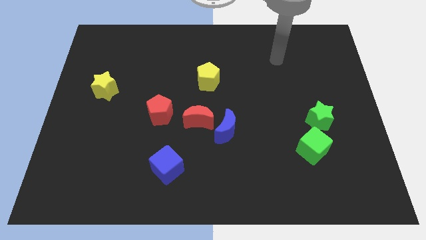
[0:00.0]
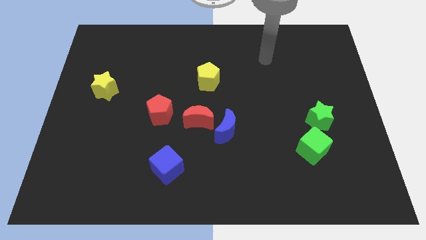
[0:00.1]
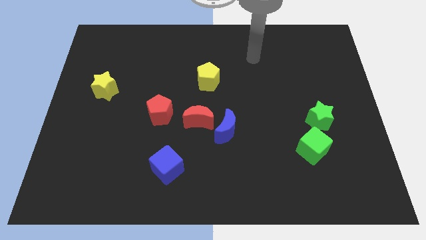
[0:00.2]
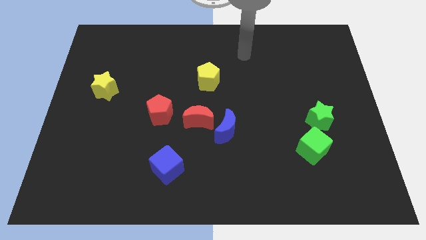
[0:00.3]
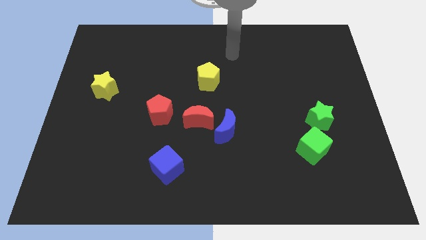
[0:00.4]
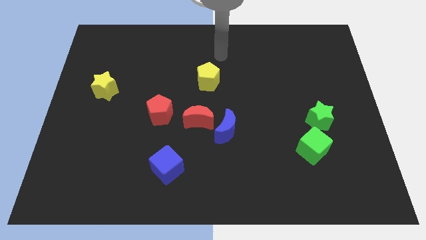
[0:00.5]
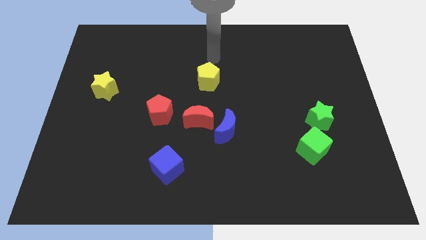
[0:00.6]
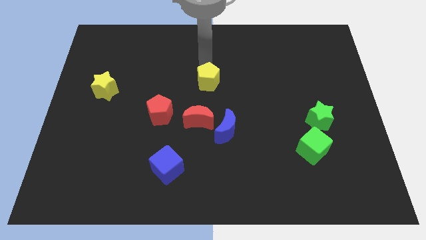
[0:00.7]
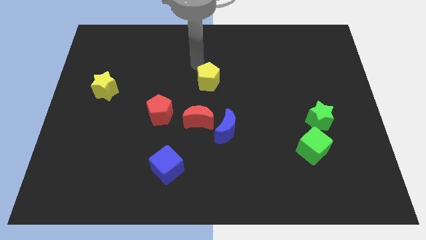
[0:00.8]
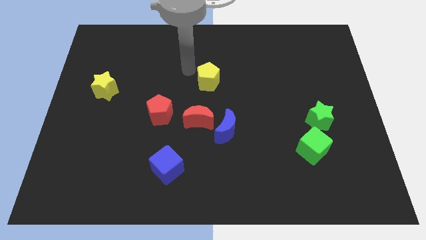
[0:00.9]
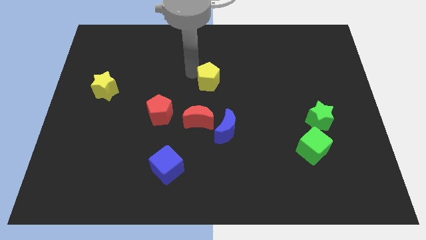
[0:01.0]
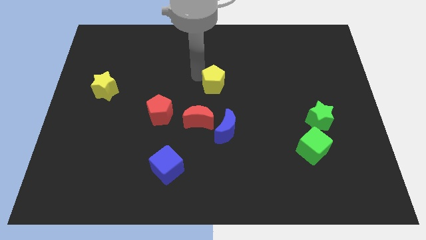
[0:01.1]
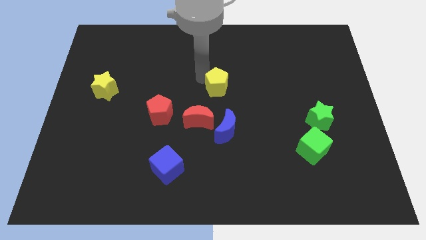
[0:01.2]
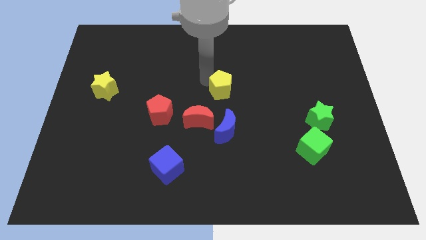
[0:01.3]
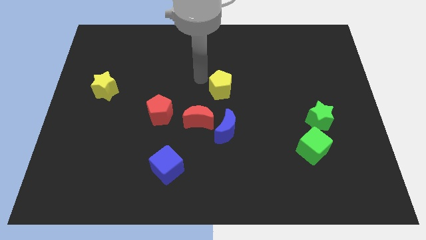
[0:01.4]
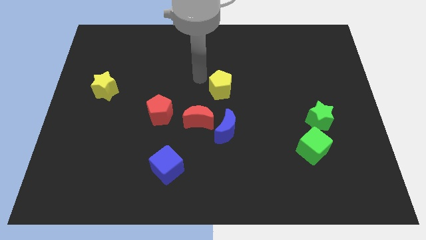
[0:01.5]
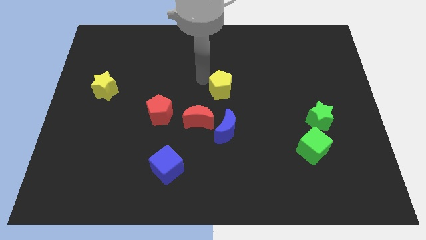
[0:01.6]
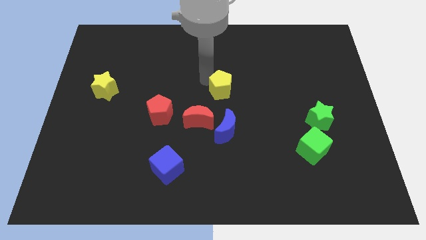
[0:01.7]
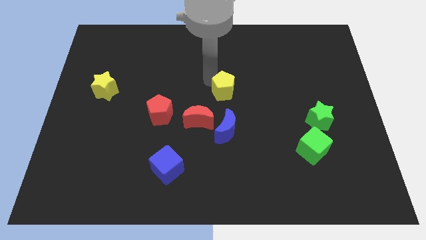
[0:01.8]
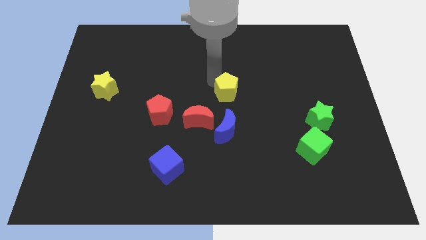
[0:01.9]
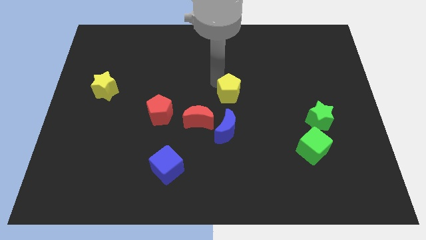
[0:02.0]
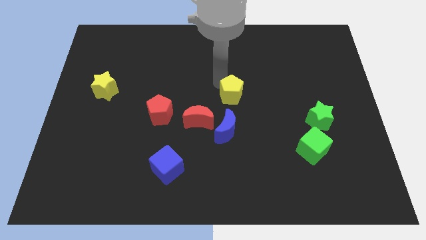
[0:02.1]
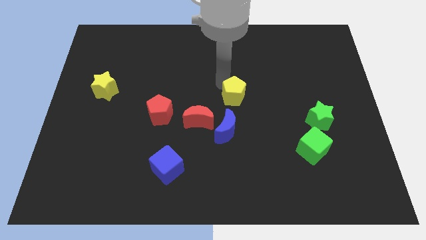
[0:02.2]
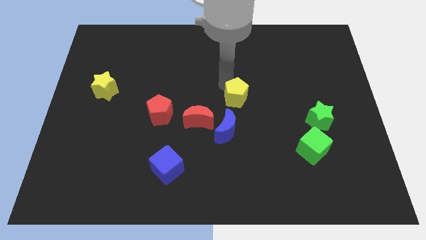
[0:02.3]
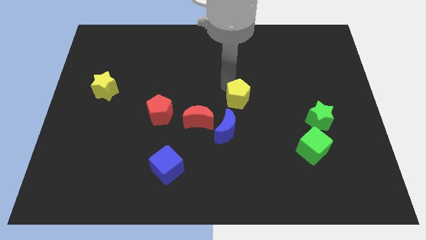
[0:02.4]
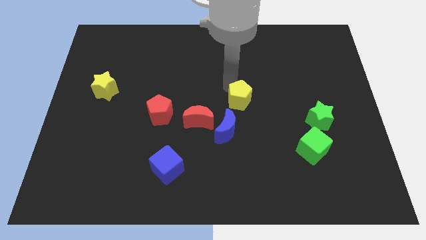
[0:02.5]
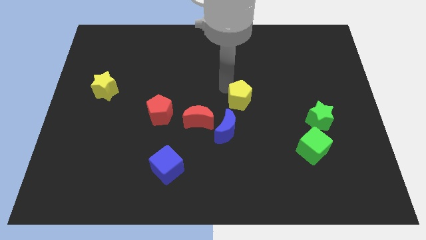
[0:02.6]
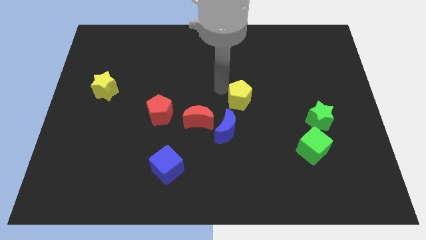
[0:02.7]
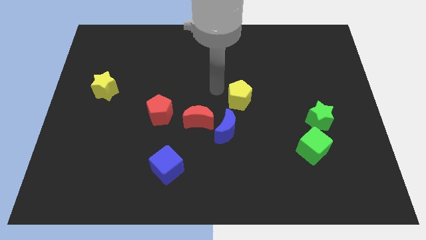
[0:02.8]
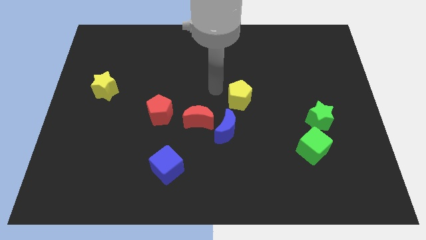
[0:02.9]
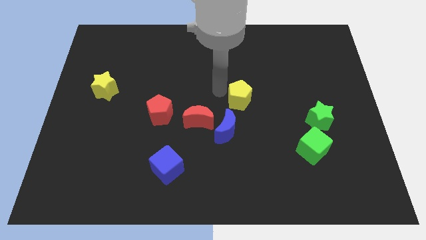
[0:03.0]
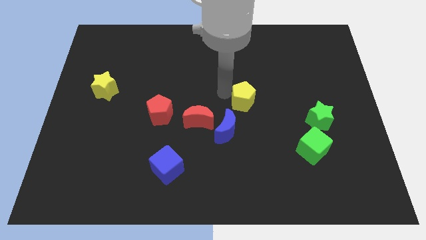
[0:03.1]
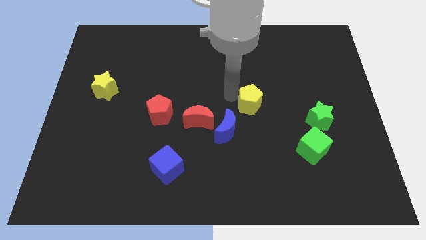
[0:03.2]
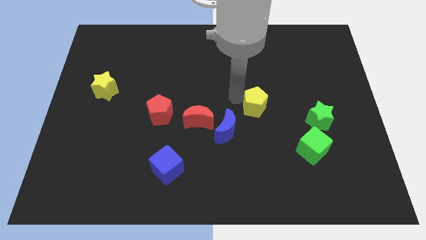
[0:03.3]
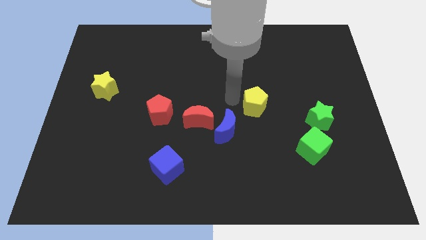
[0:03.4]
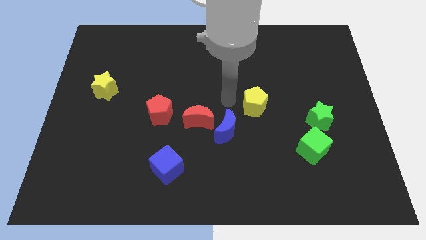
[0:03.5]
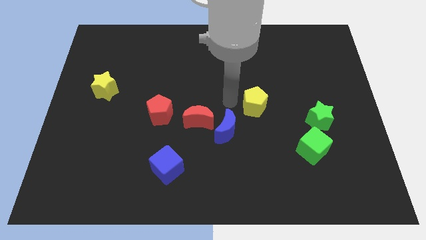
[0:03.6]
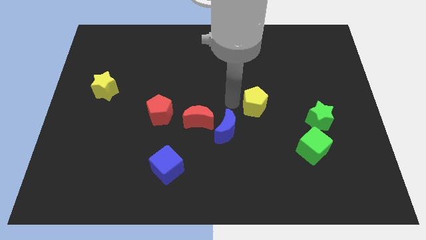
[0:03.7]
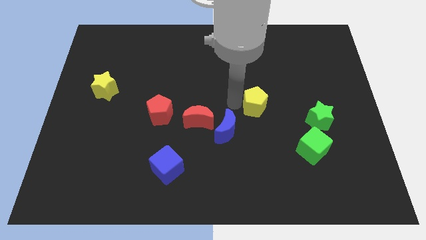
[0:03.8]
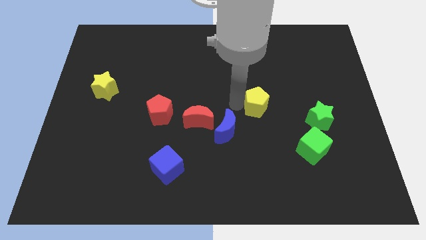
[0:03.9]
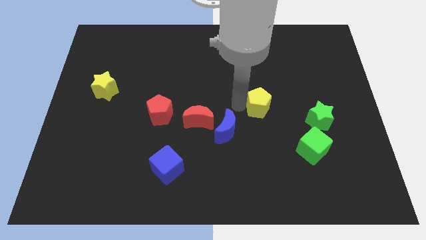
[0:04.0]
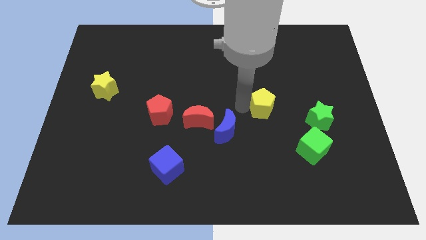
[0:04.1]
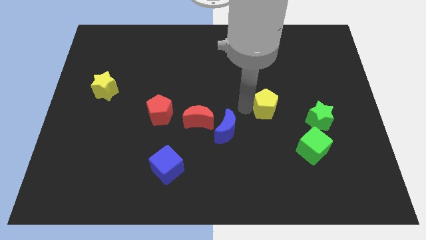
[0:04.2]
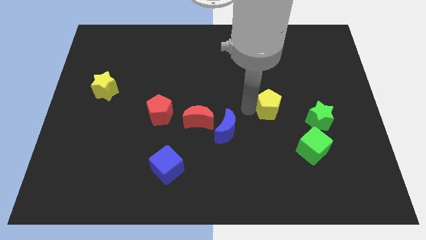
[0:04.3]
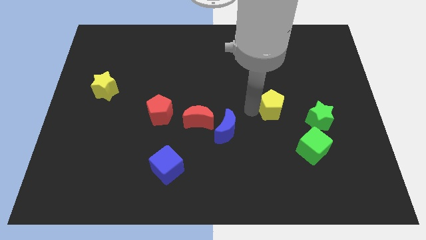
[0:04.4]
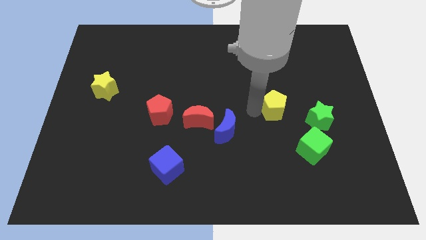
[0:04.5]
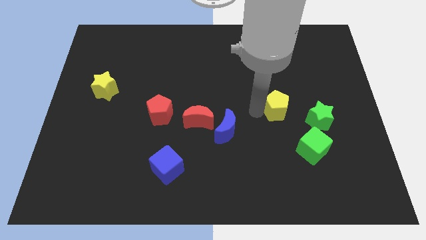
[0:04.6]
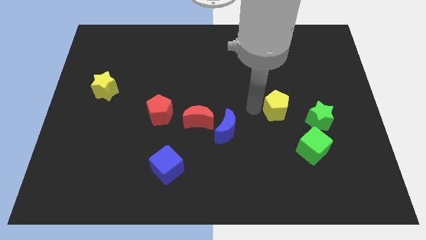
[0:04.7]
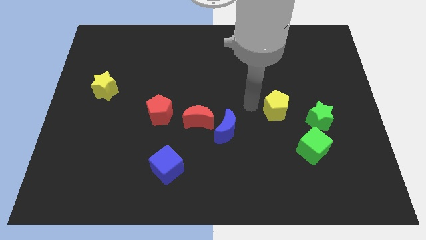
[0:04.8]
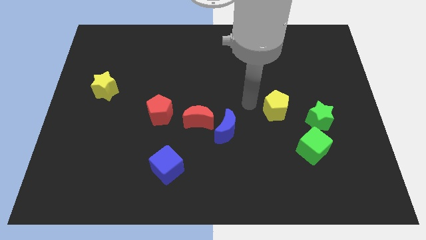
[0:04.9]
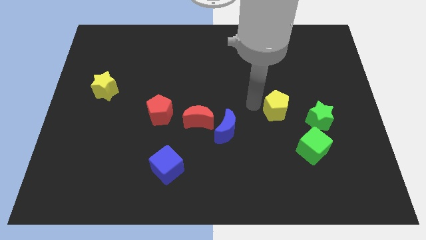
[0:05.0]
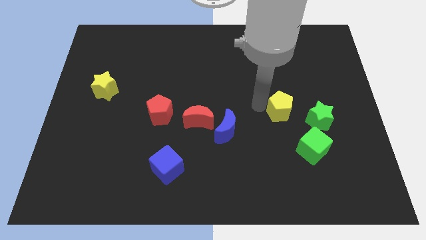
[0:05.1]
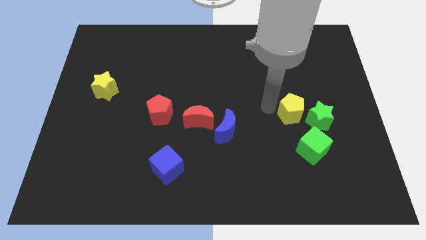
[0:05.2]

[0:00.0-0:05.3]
push the yellow pentagon to the green star

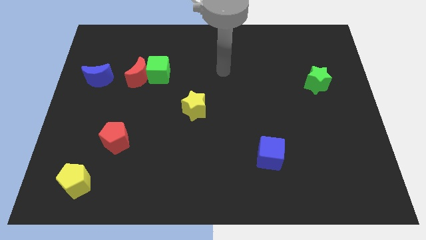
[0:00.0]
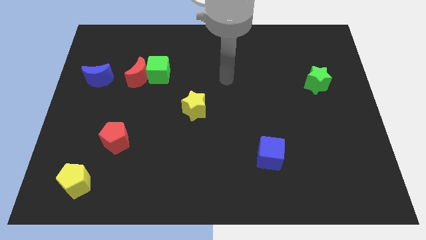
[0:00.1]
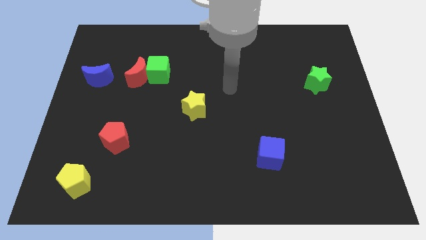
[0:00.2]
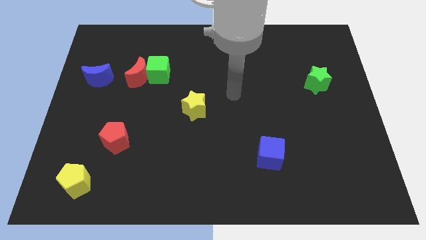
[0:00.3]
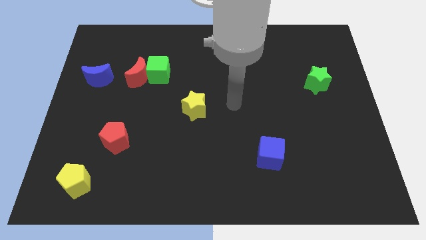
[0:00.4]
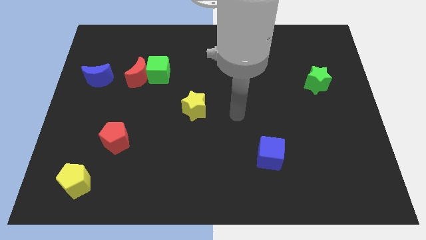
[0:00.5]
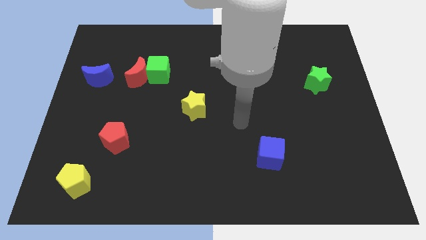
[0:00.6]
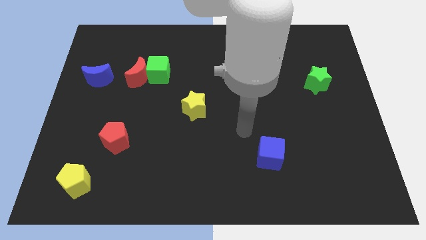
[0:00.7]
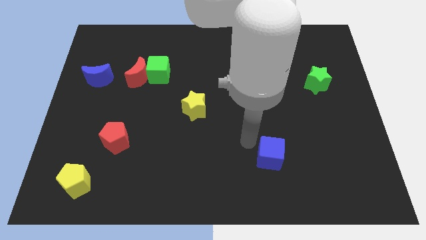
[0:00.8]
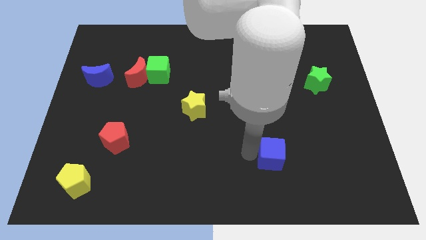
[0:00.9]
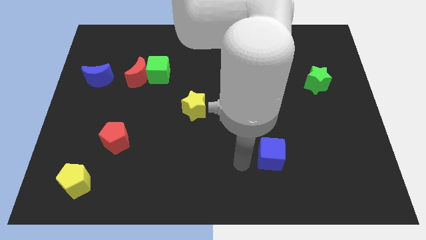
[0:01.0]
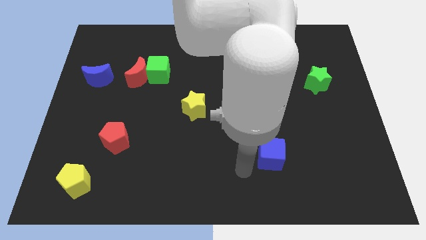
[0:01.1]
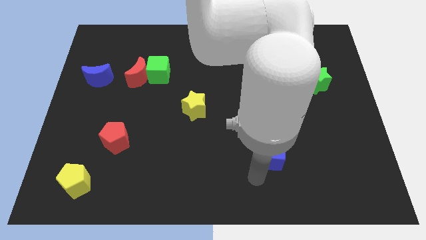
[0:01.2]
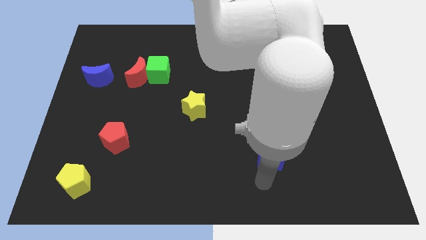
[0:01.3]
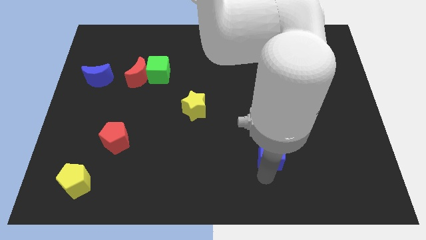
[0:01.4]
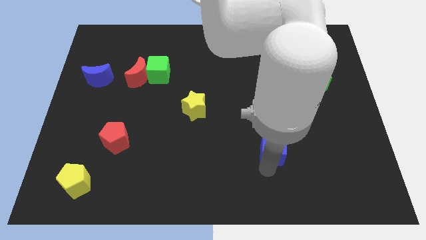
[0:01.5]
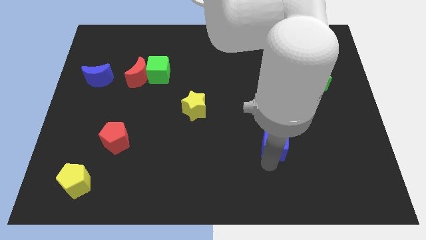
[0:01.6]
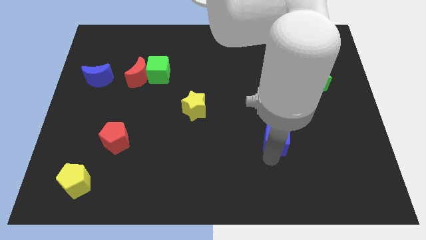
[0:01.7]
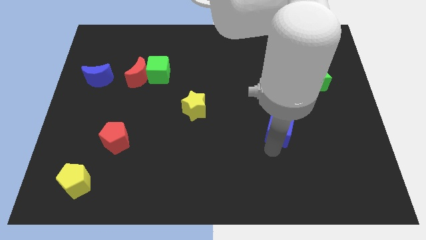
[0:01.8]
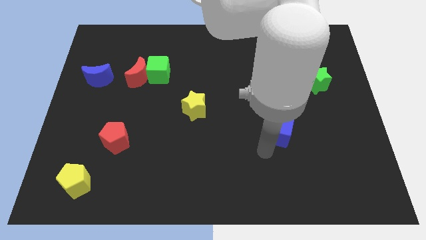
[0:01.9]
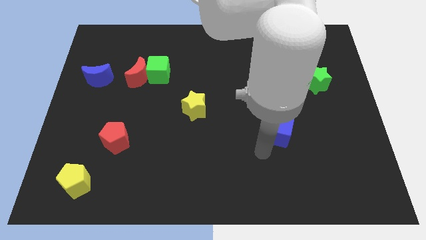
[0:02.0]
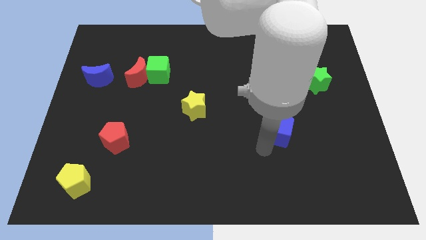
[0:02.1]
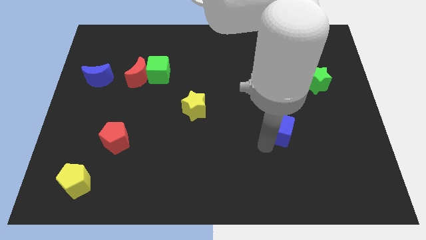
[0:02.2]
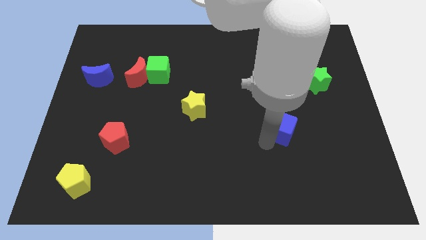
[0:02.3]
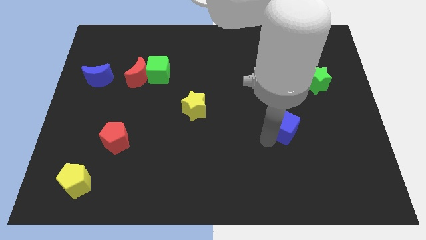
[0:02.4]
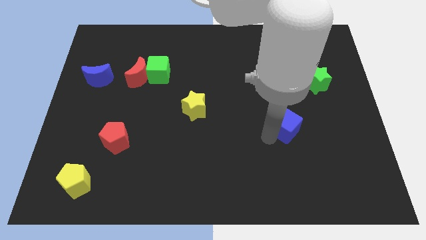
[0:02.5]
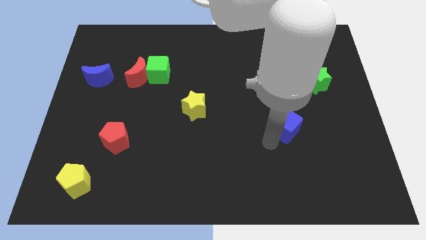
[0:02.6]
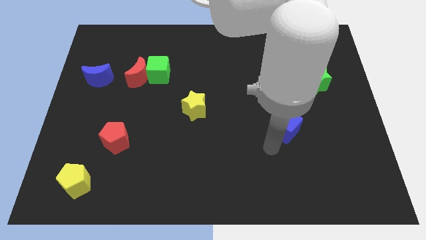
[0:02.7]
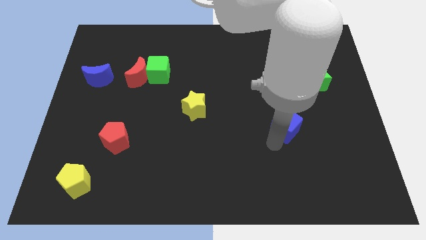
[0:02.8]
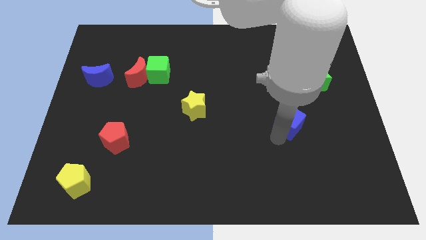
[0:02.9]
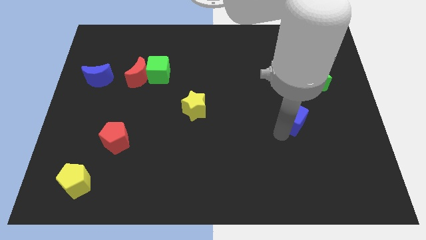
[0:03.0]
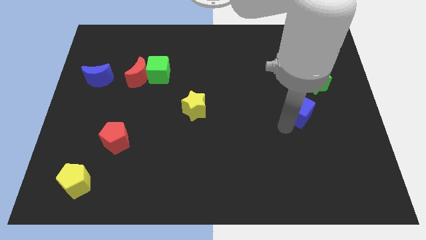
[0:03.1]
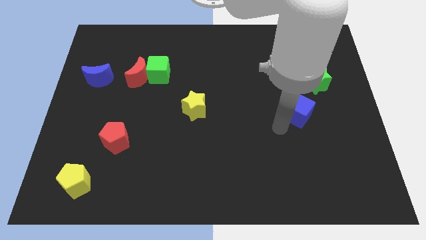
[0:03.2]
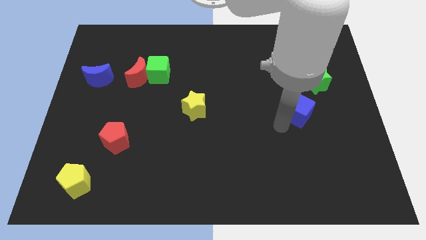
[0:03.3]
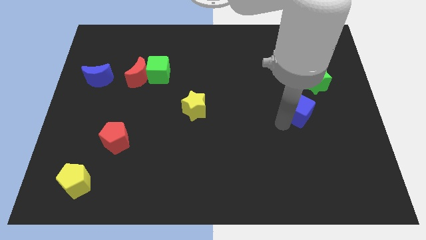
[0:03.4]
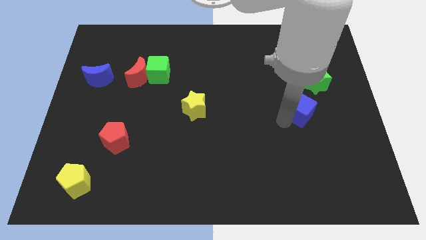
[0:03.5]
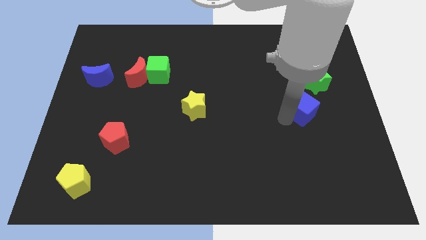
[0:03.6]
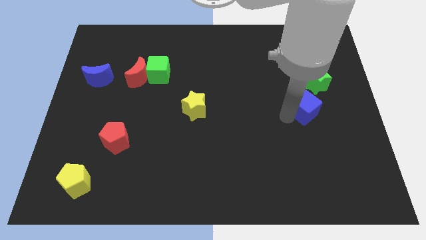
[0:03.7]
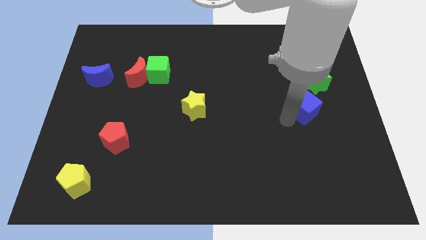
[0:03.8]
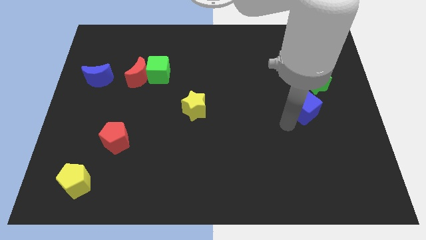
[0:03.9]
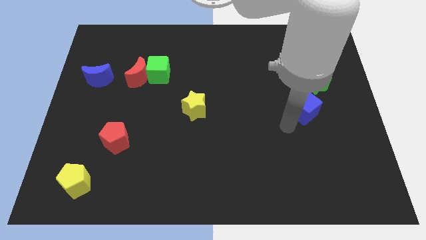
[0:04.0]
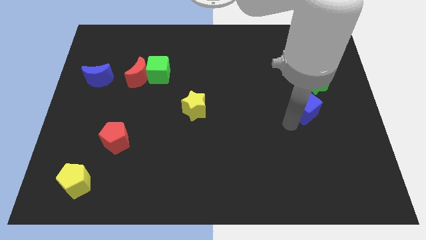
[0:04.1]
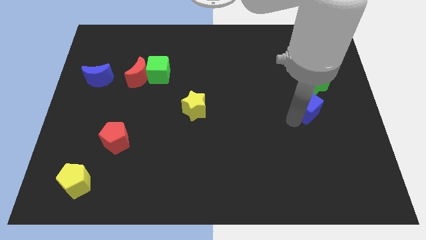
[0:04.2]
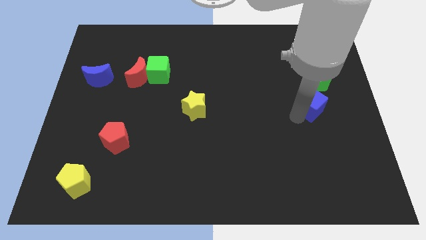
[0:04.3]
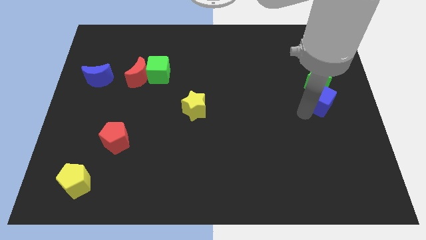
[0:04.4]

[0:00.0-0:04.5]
move the blue cube towards the green star
